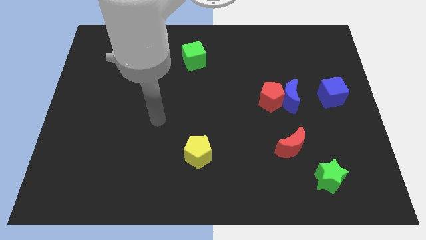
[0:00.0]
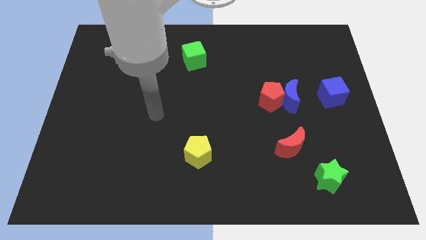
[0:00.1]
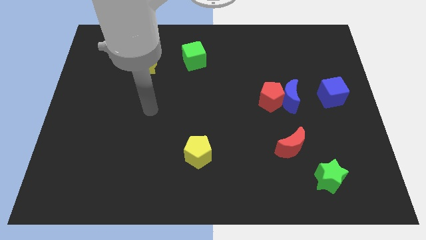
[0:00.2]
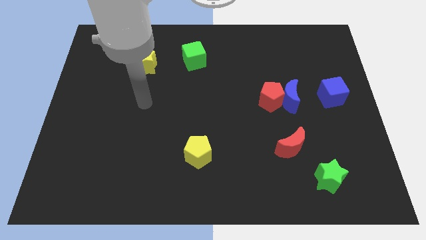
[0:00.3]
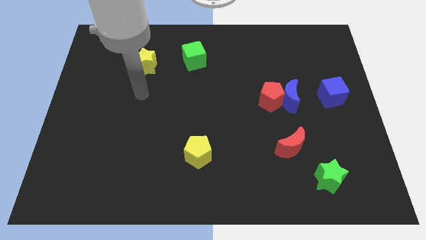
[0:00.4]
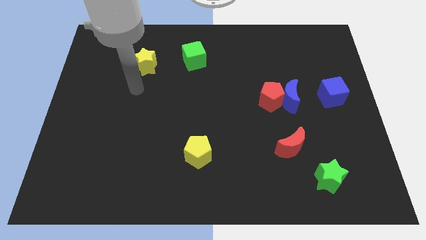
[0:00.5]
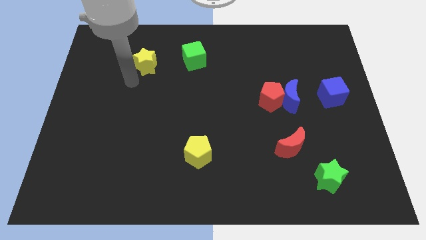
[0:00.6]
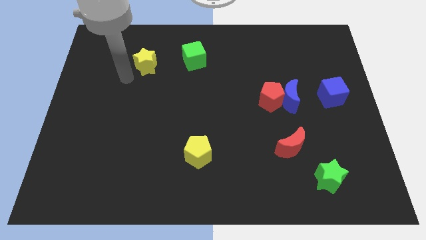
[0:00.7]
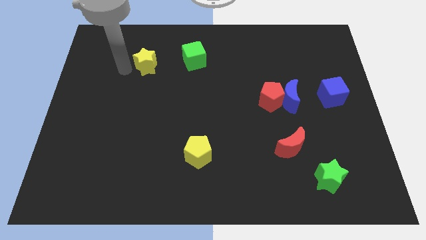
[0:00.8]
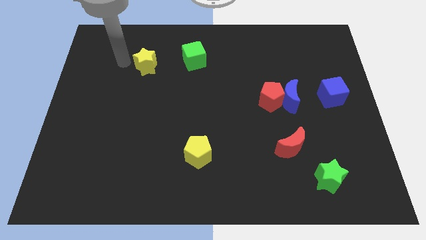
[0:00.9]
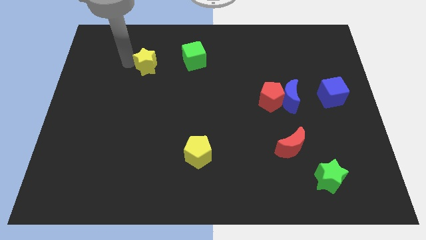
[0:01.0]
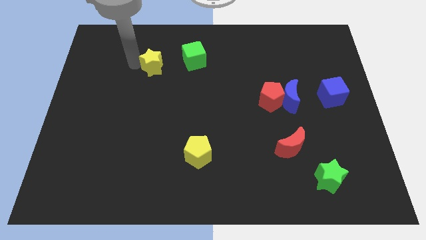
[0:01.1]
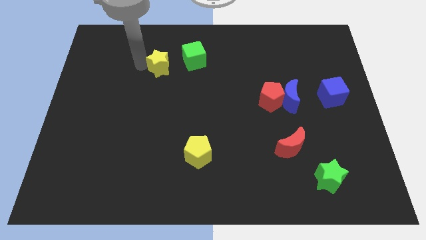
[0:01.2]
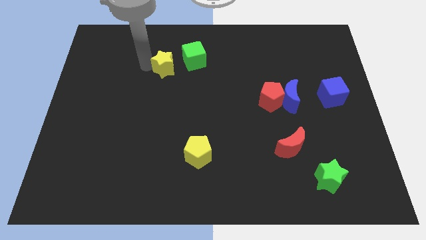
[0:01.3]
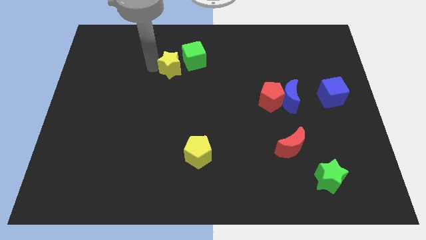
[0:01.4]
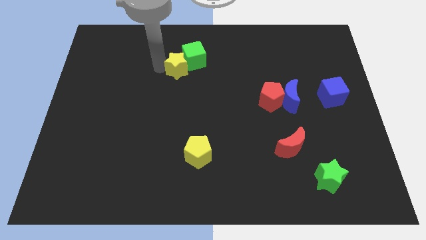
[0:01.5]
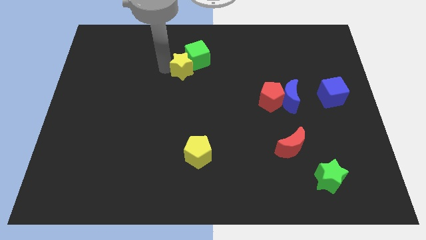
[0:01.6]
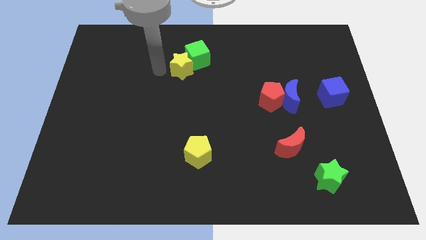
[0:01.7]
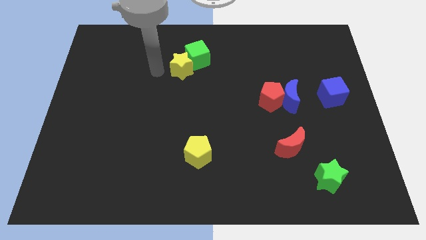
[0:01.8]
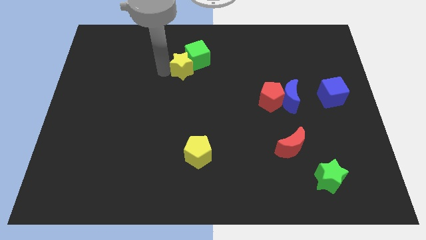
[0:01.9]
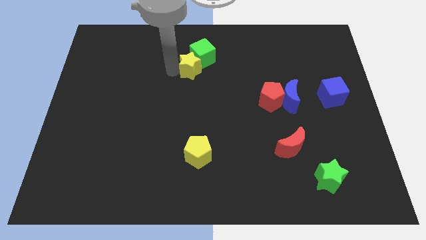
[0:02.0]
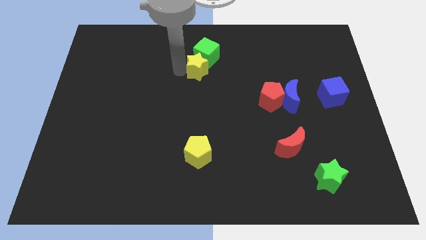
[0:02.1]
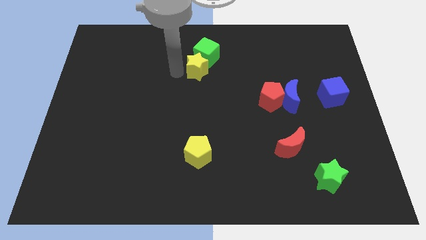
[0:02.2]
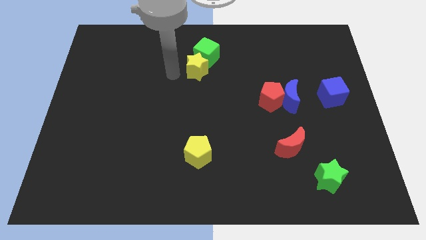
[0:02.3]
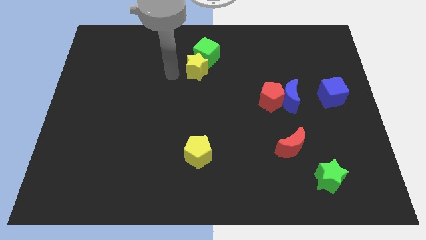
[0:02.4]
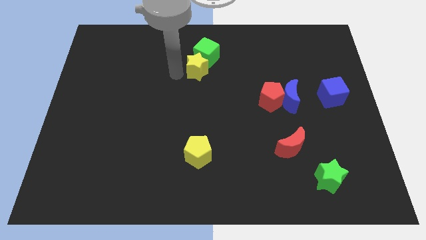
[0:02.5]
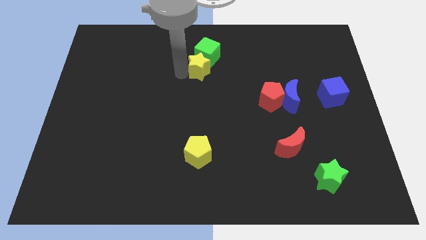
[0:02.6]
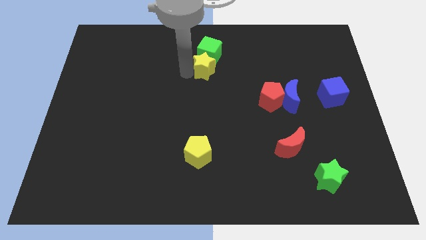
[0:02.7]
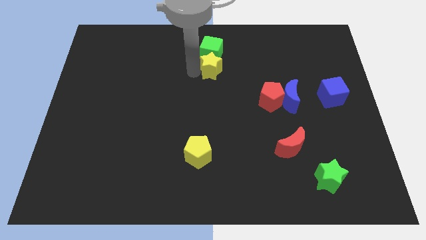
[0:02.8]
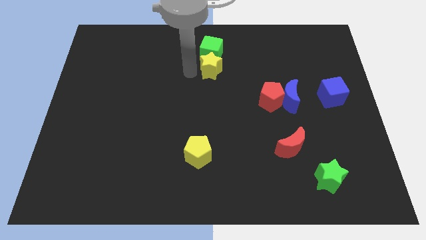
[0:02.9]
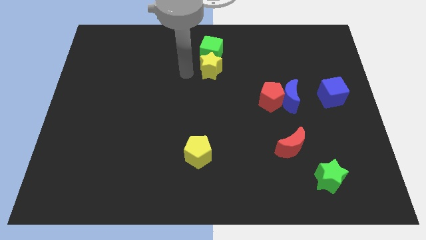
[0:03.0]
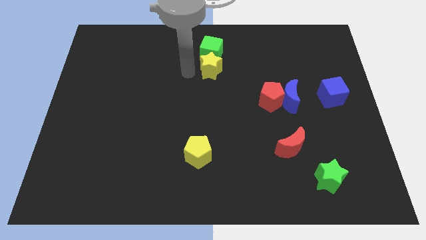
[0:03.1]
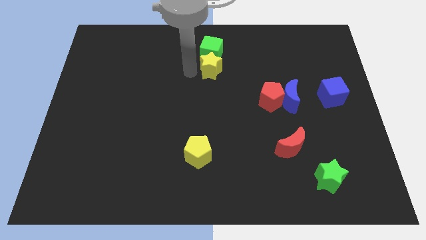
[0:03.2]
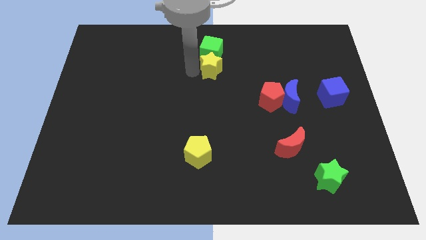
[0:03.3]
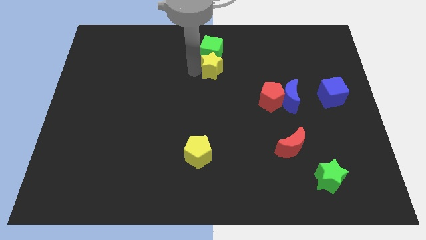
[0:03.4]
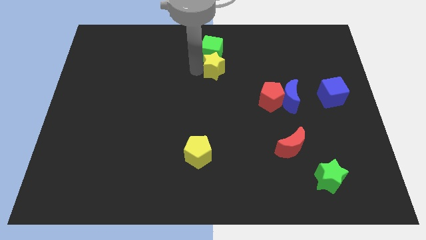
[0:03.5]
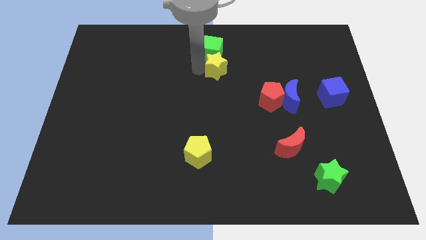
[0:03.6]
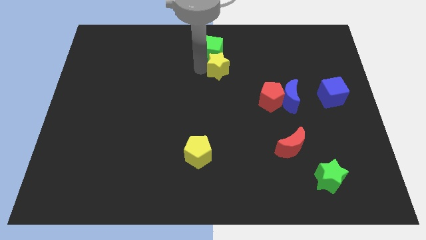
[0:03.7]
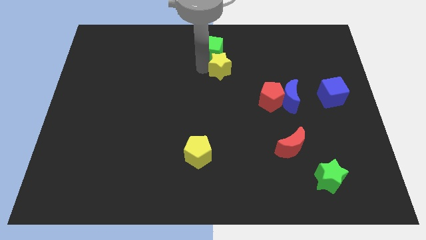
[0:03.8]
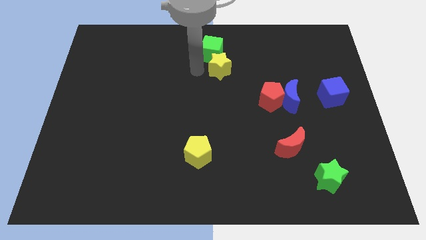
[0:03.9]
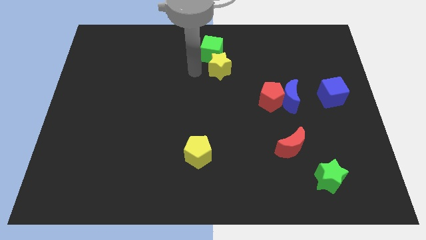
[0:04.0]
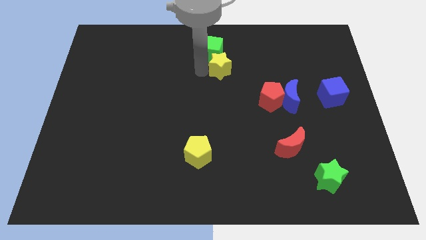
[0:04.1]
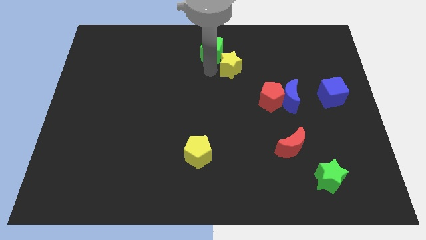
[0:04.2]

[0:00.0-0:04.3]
slide the yellow star right

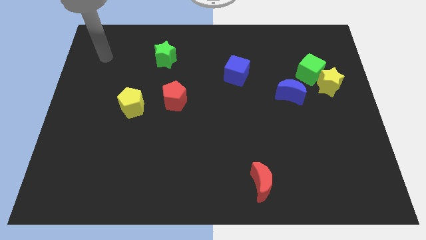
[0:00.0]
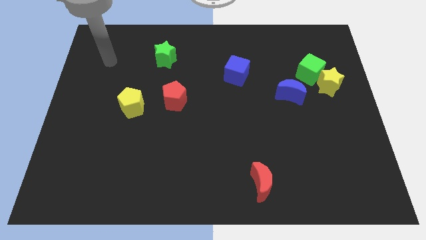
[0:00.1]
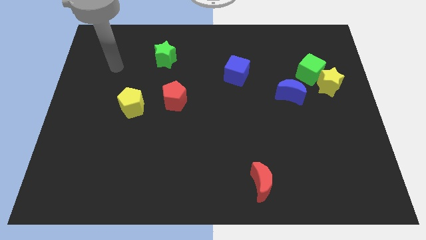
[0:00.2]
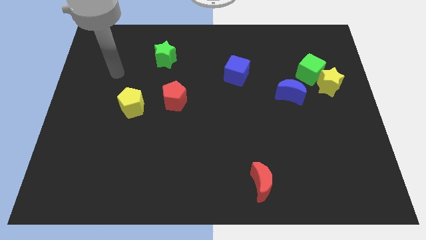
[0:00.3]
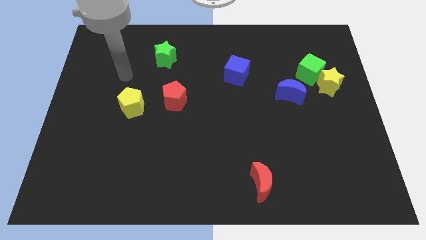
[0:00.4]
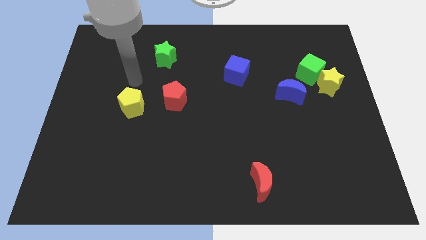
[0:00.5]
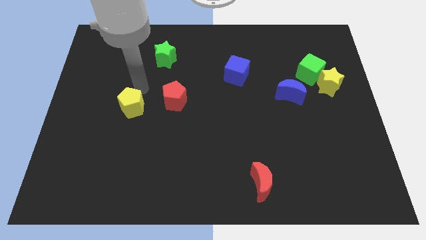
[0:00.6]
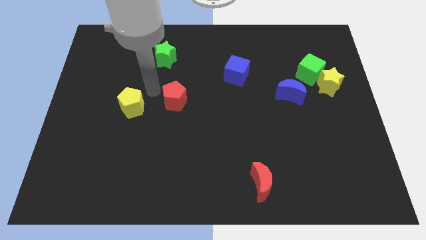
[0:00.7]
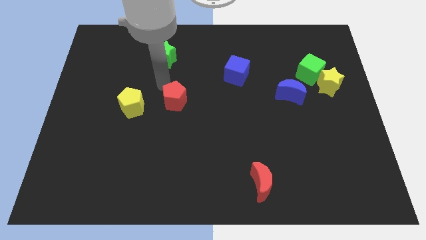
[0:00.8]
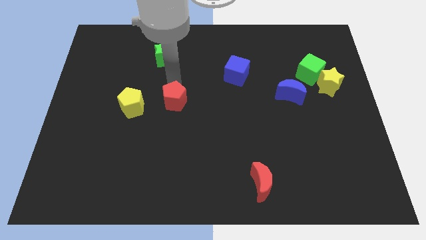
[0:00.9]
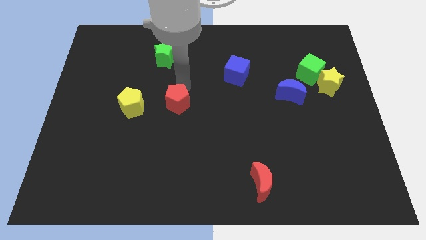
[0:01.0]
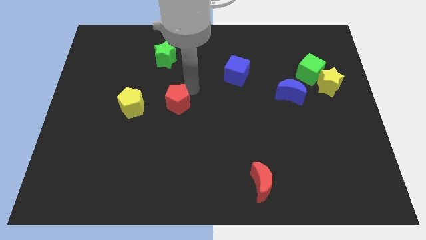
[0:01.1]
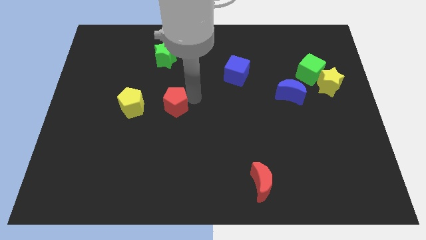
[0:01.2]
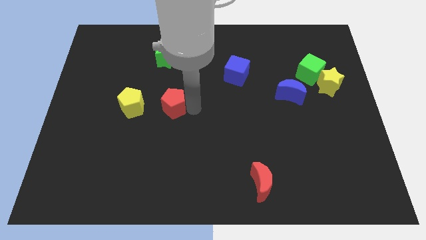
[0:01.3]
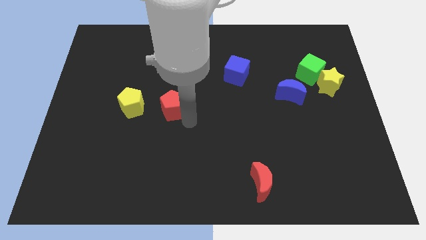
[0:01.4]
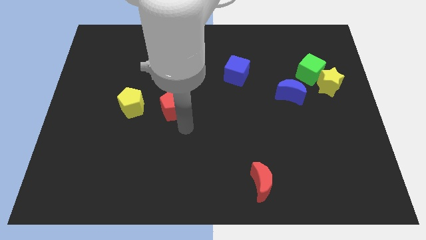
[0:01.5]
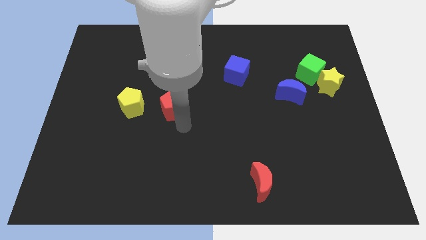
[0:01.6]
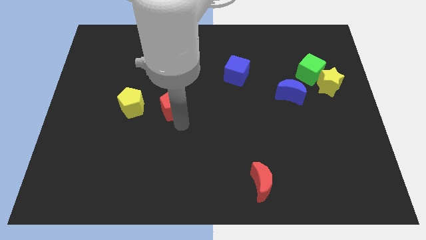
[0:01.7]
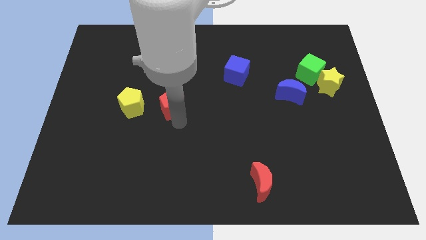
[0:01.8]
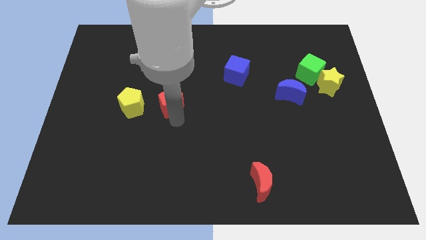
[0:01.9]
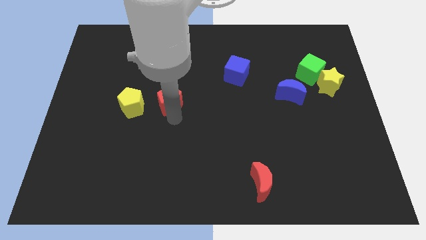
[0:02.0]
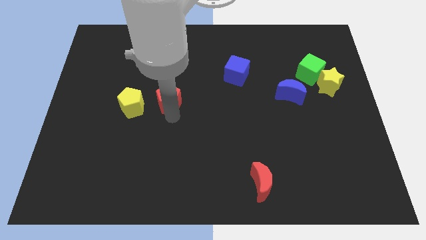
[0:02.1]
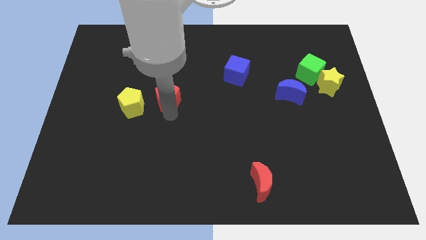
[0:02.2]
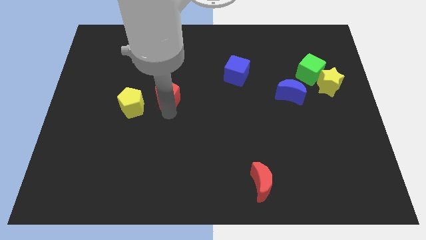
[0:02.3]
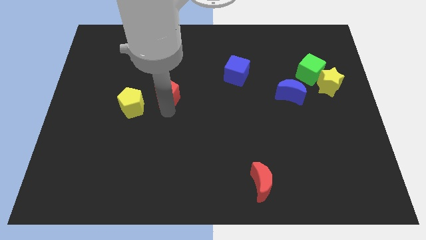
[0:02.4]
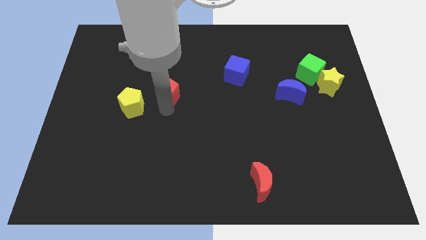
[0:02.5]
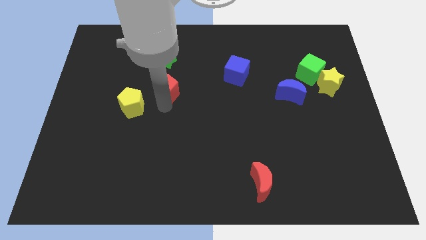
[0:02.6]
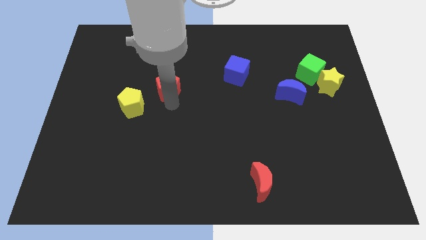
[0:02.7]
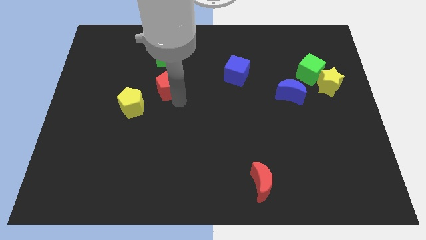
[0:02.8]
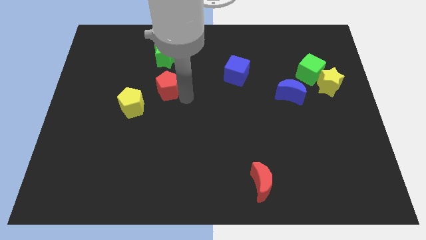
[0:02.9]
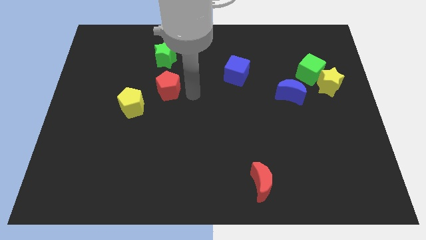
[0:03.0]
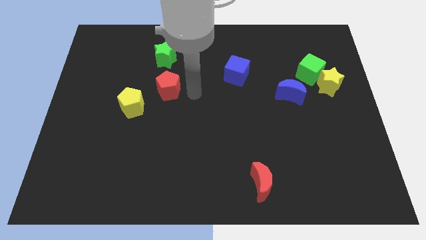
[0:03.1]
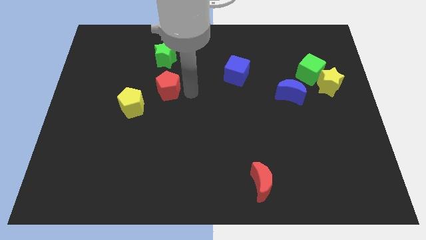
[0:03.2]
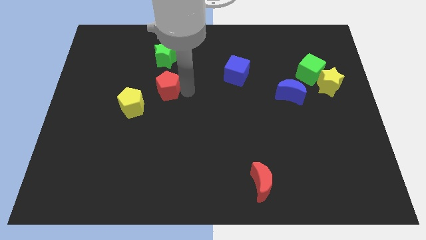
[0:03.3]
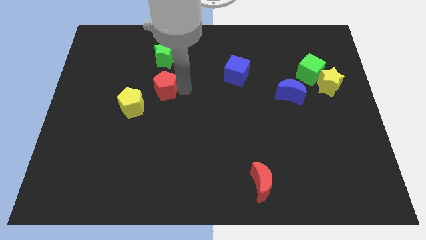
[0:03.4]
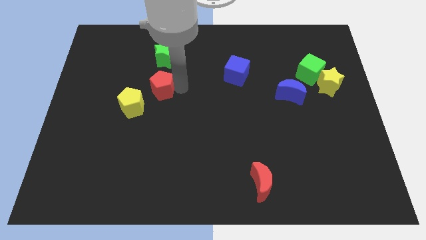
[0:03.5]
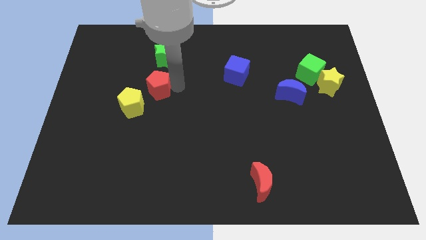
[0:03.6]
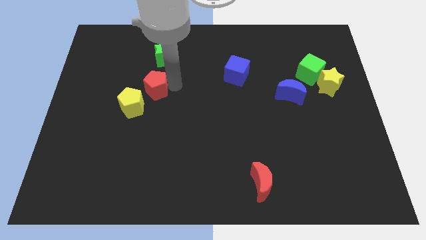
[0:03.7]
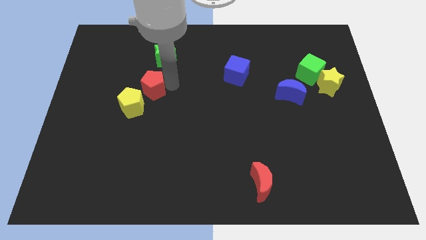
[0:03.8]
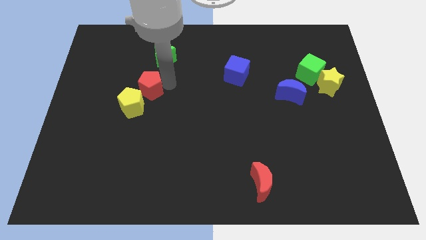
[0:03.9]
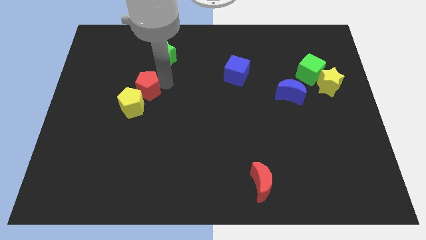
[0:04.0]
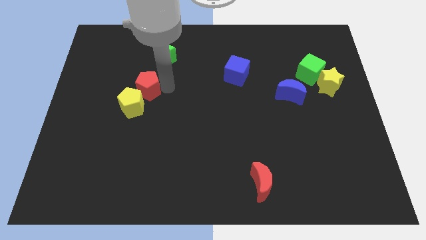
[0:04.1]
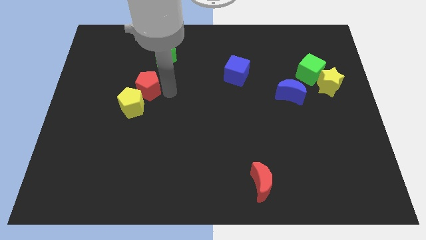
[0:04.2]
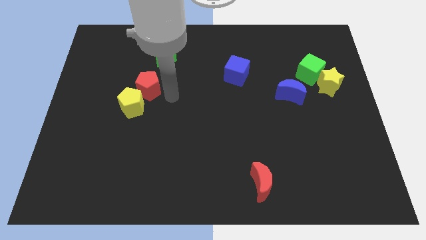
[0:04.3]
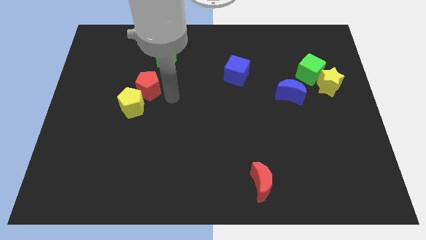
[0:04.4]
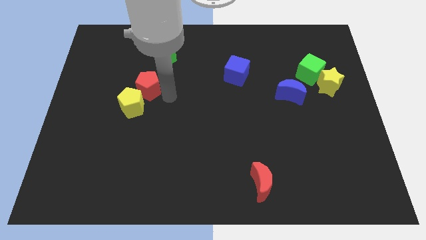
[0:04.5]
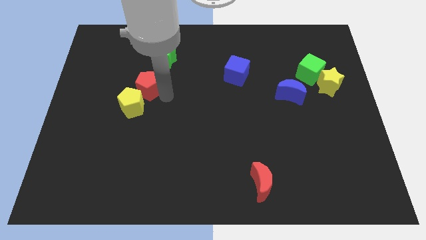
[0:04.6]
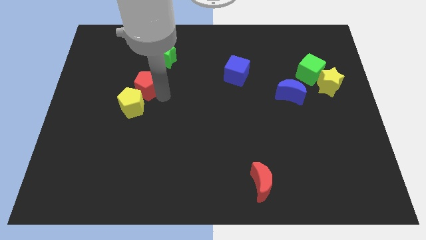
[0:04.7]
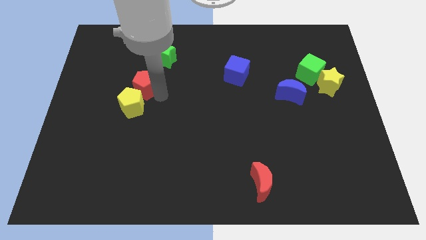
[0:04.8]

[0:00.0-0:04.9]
push the red pentagon left a bit
